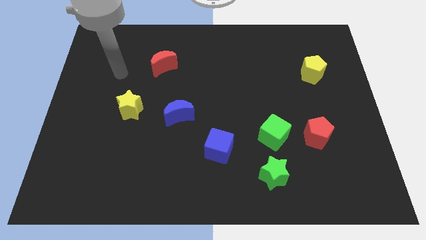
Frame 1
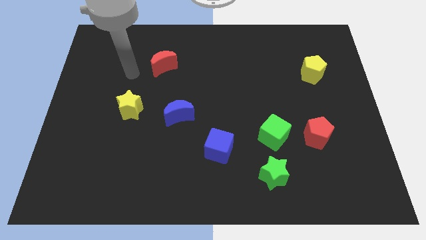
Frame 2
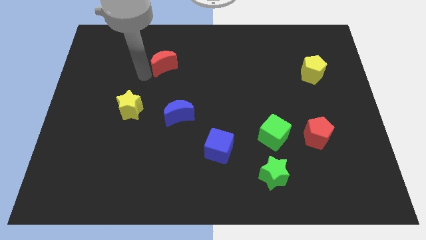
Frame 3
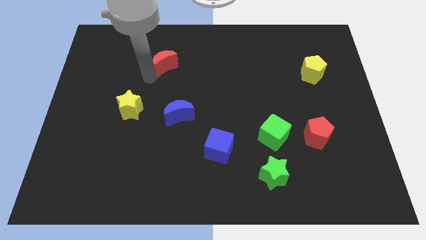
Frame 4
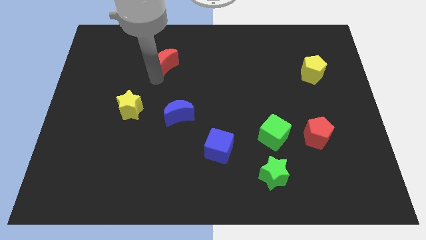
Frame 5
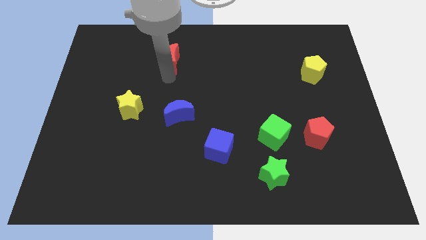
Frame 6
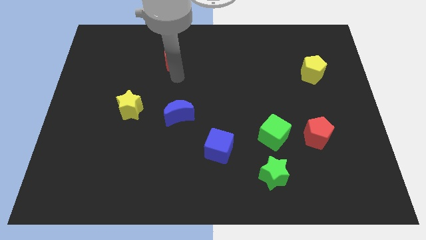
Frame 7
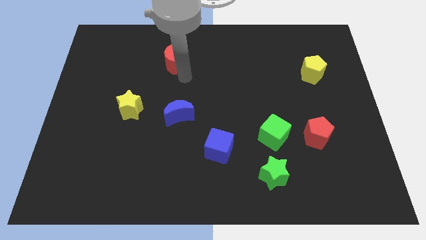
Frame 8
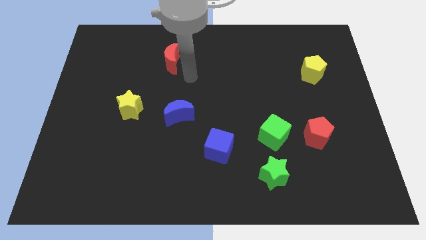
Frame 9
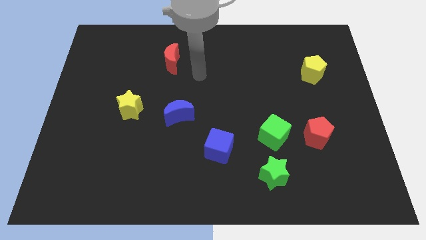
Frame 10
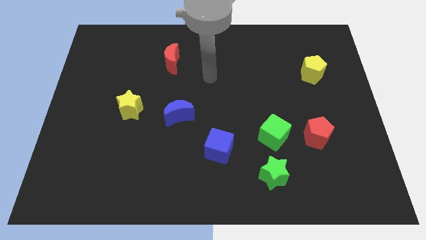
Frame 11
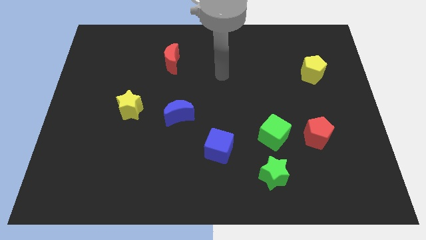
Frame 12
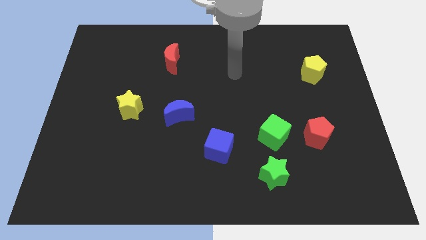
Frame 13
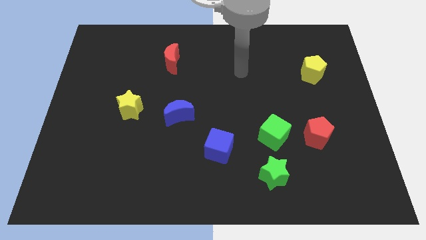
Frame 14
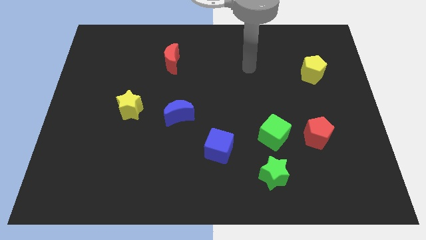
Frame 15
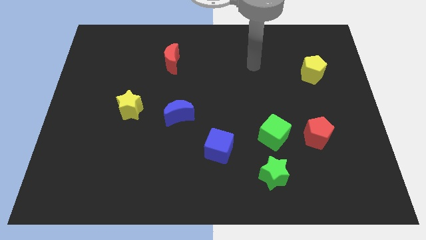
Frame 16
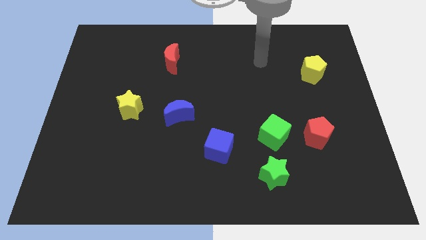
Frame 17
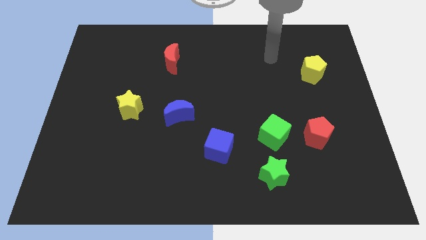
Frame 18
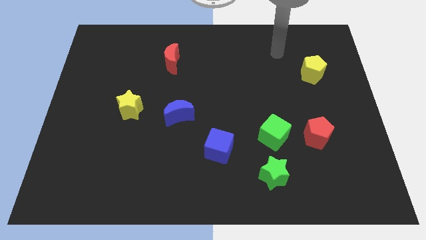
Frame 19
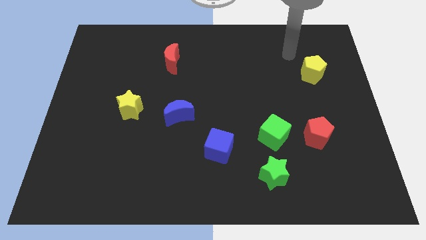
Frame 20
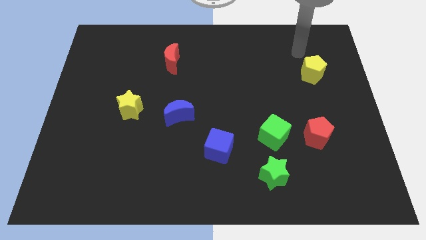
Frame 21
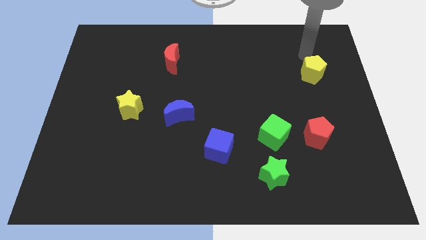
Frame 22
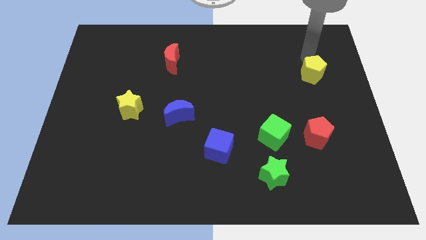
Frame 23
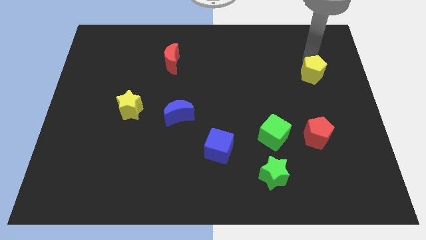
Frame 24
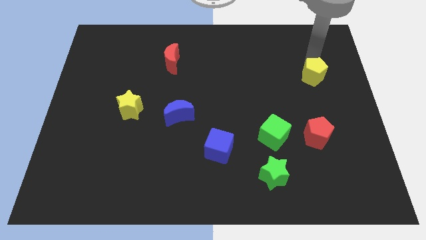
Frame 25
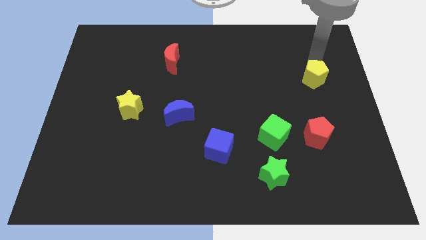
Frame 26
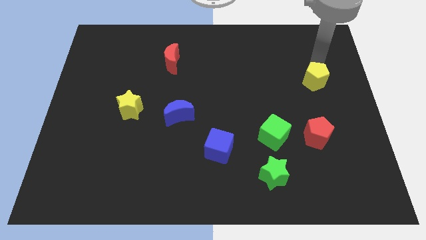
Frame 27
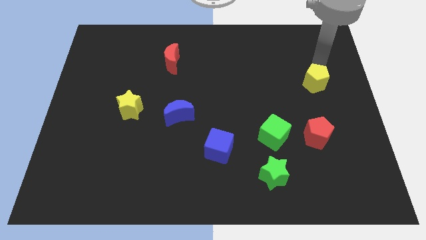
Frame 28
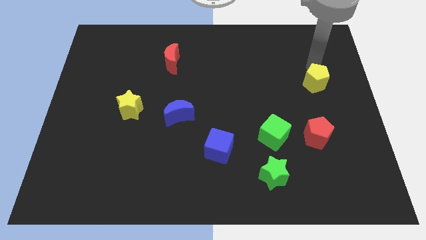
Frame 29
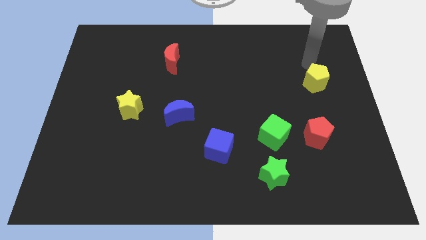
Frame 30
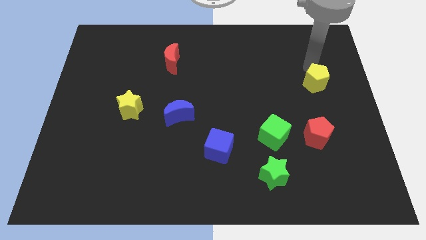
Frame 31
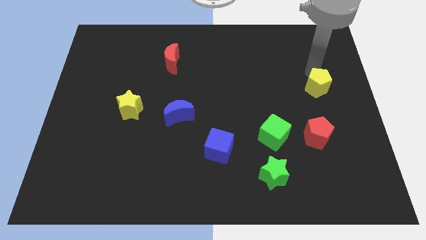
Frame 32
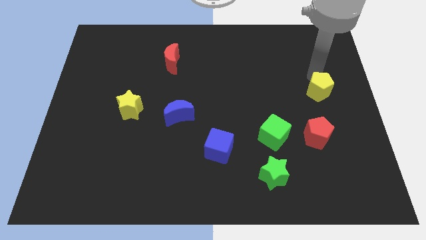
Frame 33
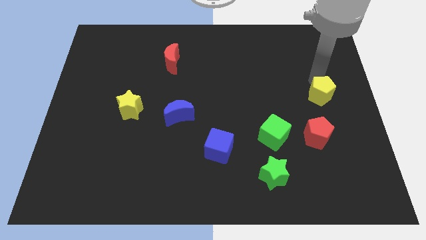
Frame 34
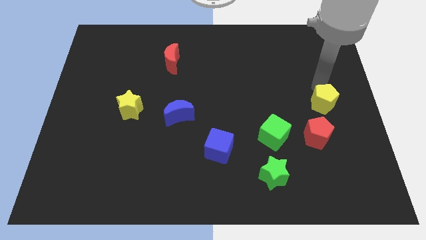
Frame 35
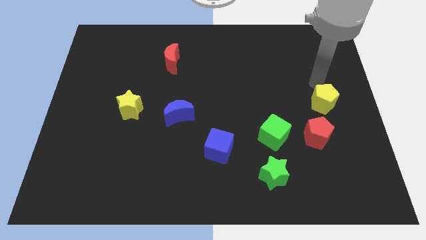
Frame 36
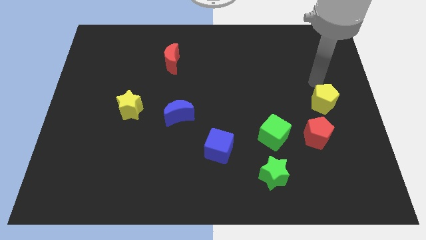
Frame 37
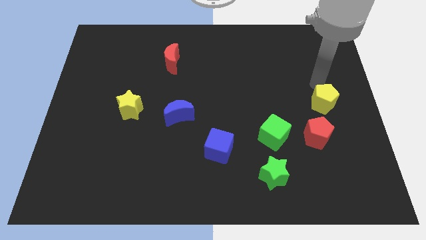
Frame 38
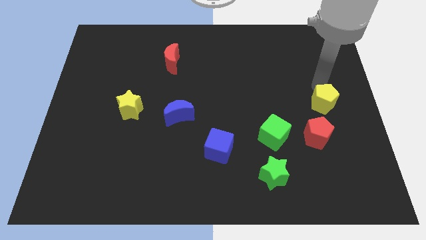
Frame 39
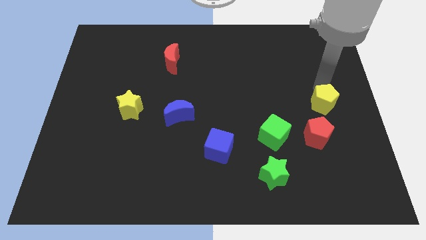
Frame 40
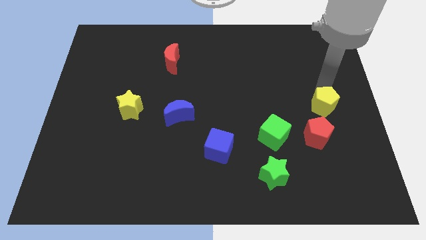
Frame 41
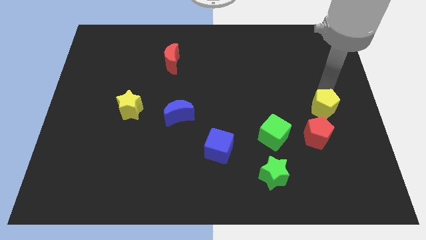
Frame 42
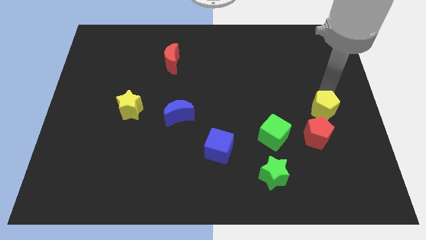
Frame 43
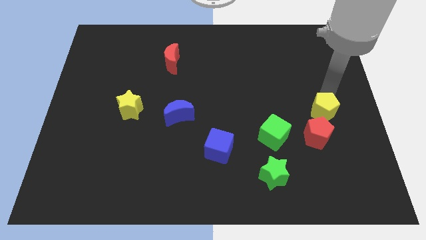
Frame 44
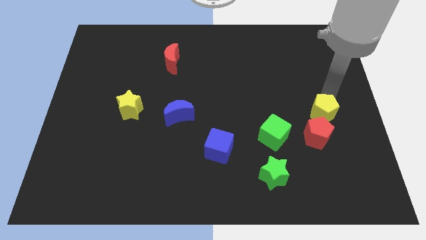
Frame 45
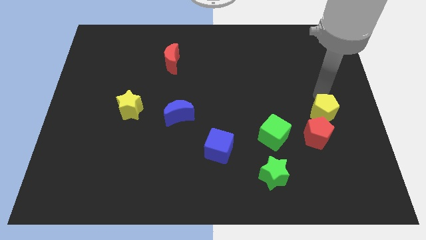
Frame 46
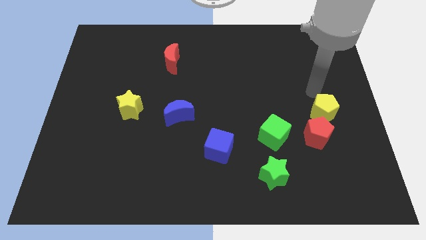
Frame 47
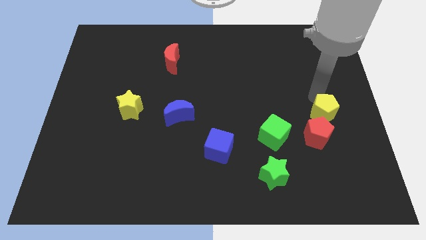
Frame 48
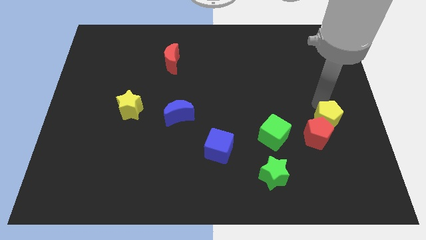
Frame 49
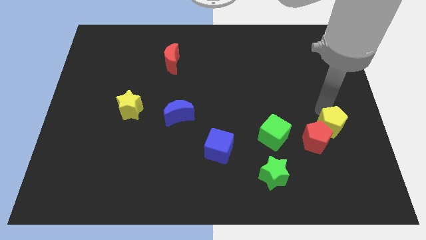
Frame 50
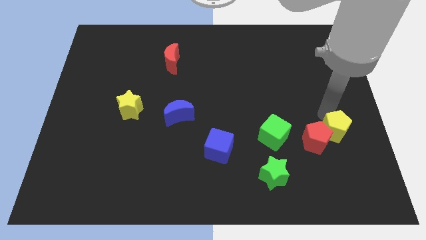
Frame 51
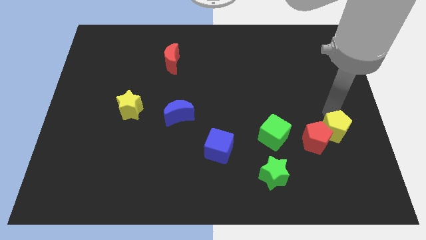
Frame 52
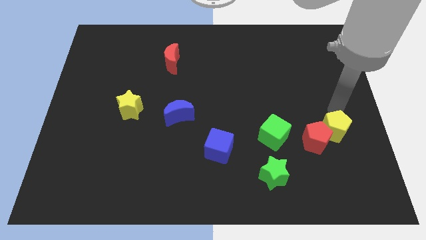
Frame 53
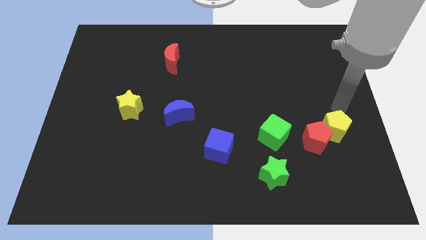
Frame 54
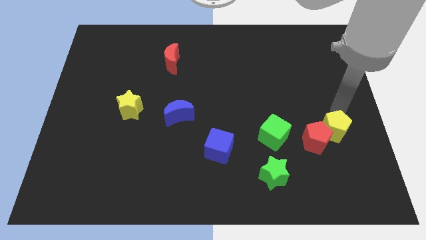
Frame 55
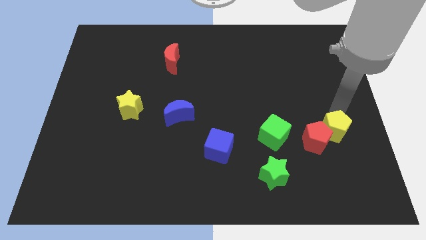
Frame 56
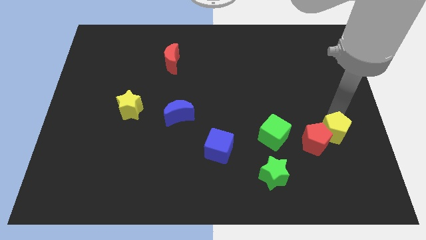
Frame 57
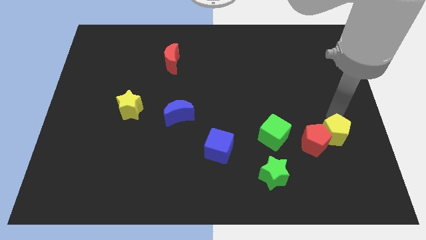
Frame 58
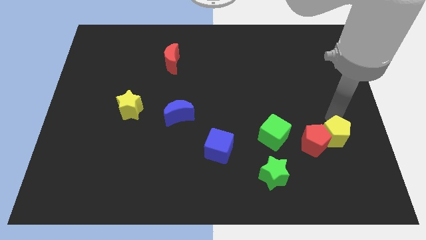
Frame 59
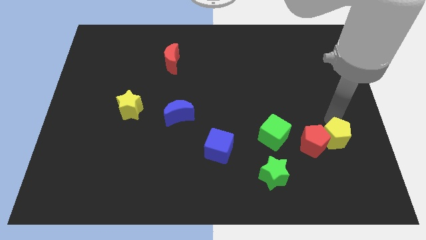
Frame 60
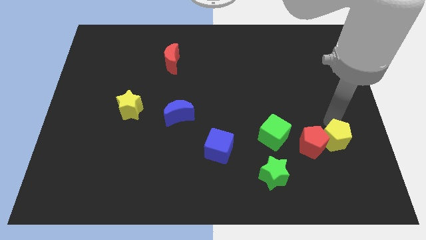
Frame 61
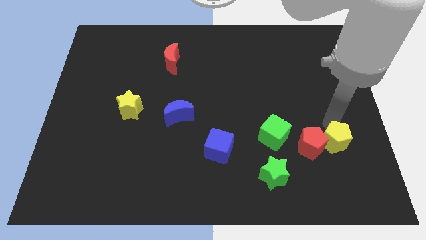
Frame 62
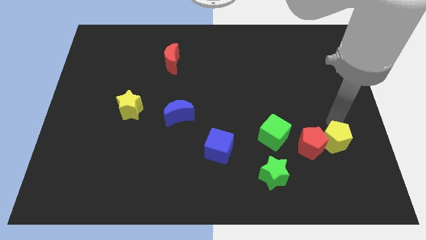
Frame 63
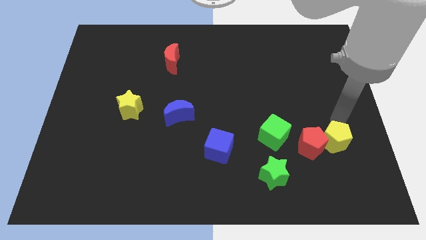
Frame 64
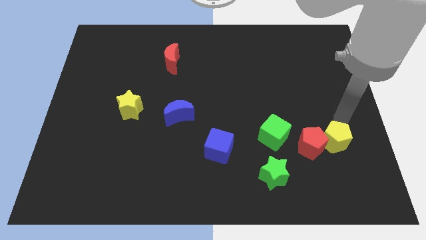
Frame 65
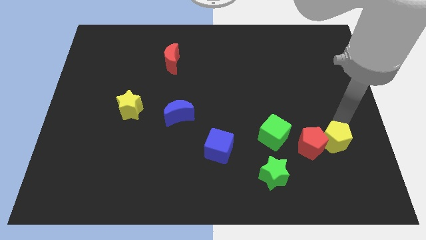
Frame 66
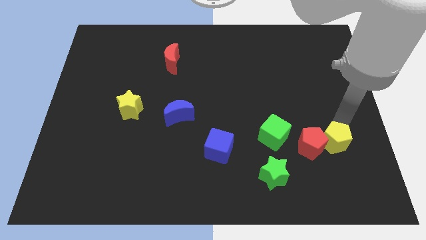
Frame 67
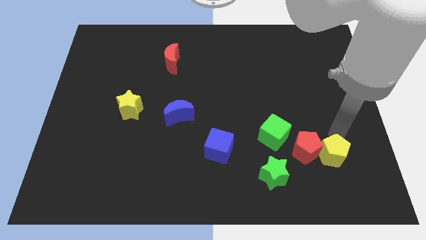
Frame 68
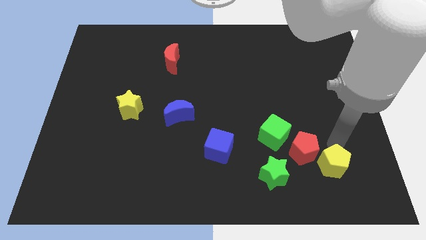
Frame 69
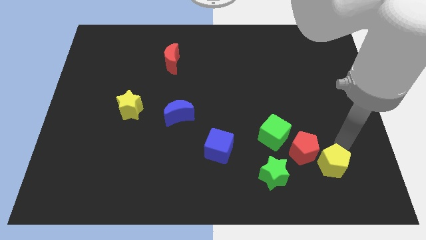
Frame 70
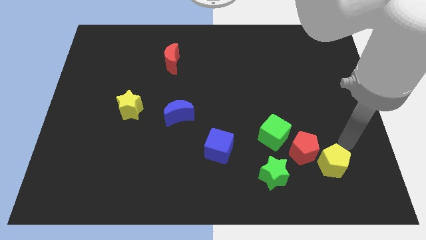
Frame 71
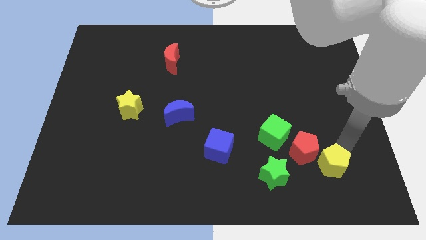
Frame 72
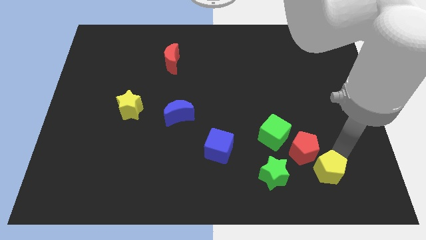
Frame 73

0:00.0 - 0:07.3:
move the yellow pentagon below the red pentagon
